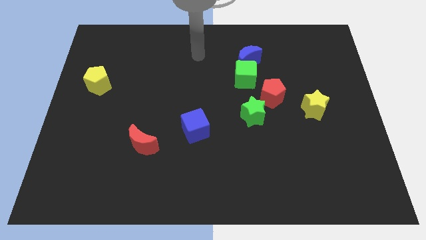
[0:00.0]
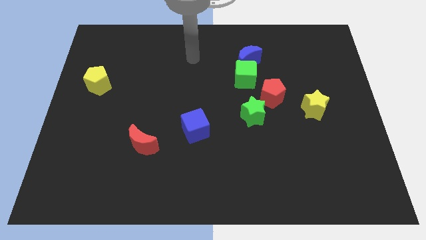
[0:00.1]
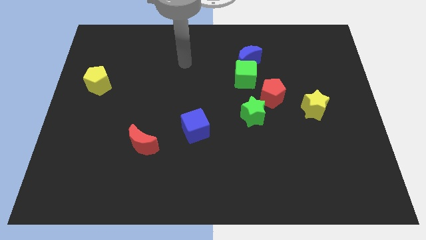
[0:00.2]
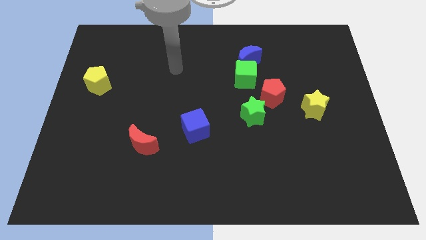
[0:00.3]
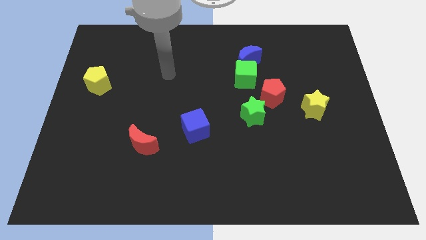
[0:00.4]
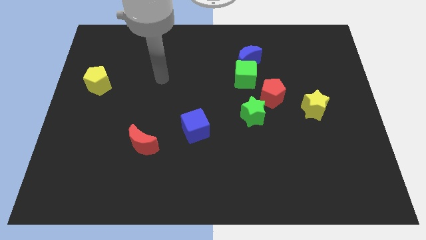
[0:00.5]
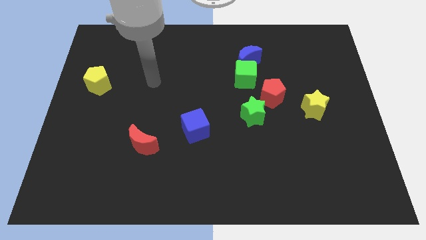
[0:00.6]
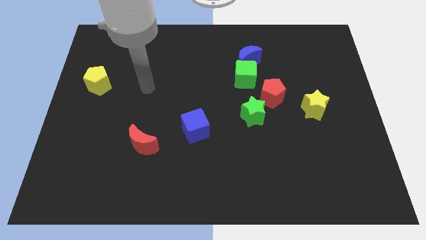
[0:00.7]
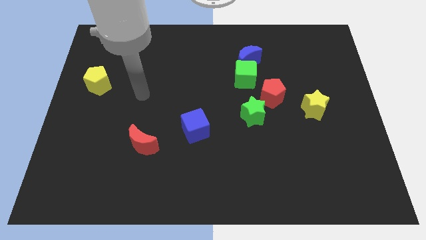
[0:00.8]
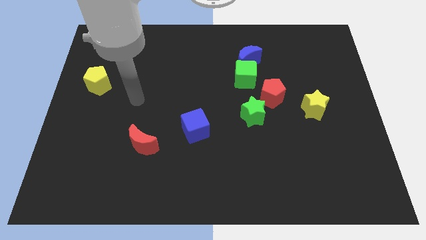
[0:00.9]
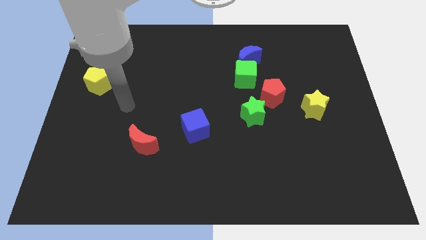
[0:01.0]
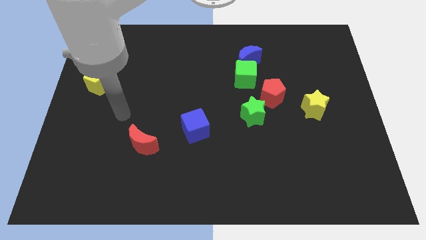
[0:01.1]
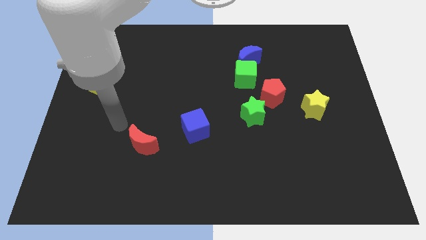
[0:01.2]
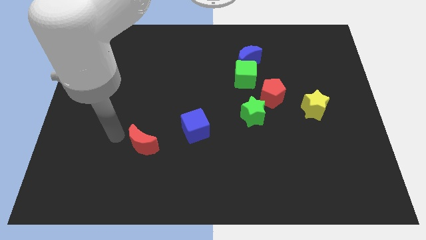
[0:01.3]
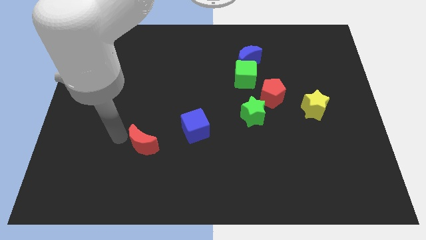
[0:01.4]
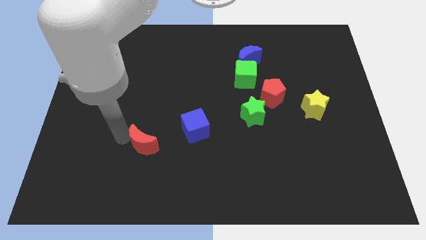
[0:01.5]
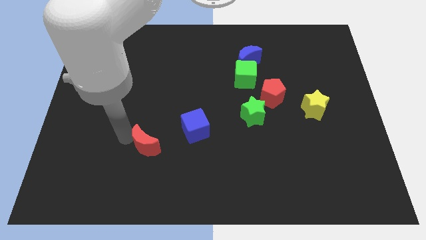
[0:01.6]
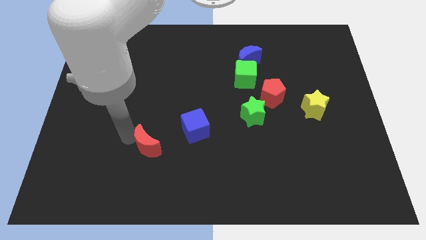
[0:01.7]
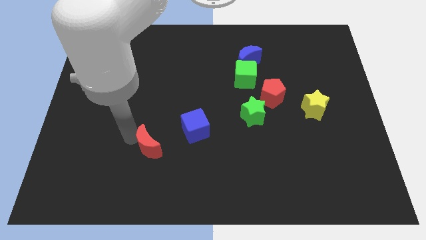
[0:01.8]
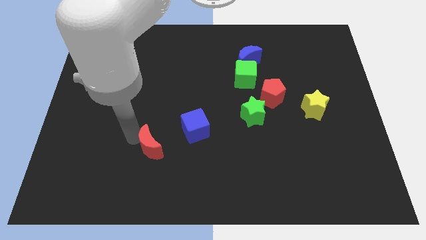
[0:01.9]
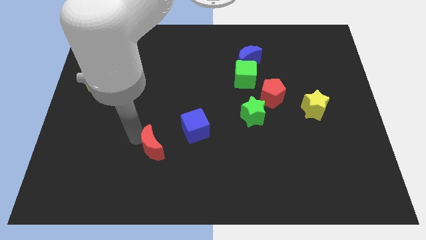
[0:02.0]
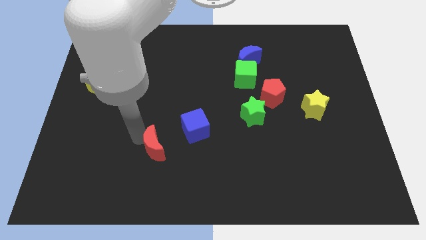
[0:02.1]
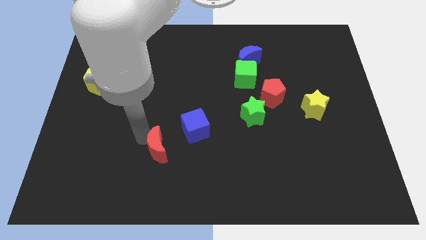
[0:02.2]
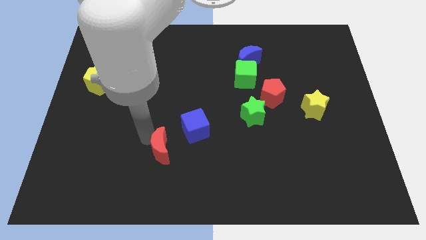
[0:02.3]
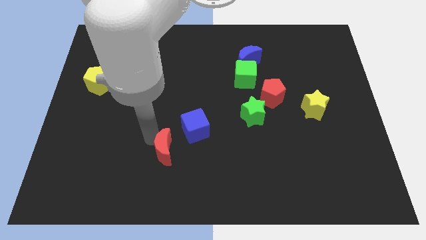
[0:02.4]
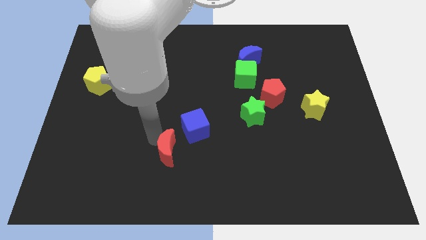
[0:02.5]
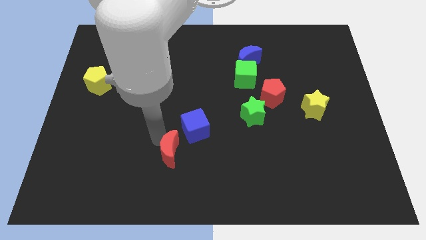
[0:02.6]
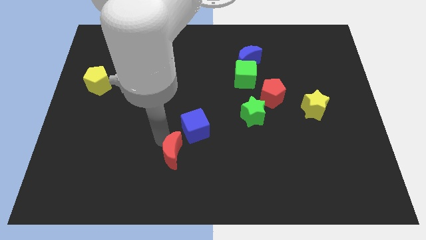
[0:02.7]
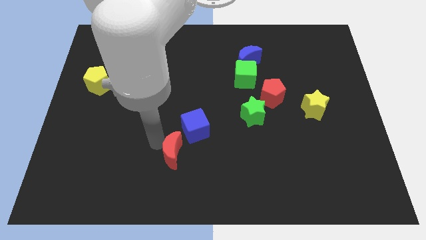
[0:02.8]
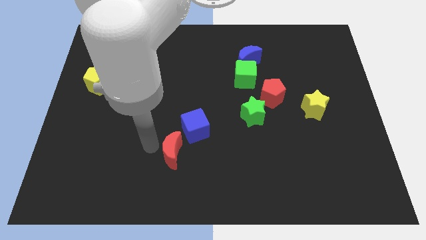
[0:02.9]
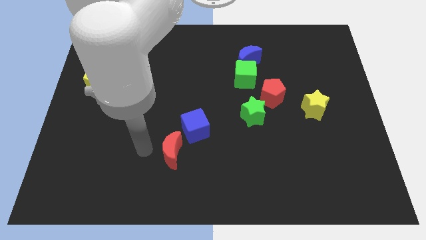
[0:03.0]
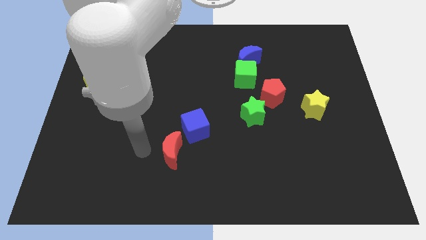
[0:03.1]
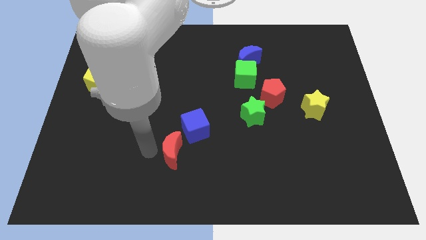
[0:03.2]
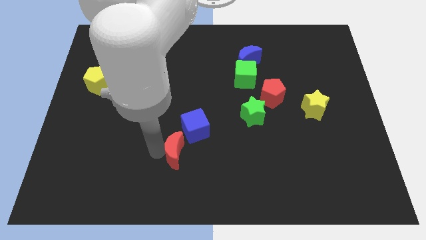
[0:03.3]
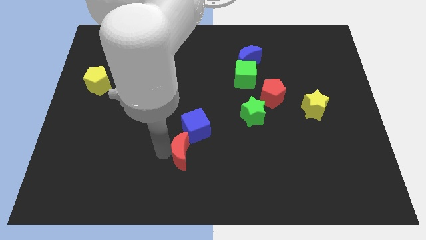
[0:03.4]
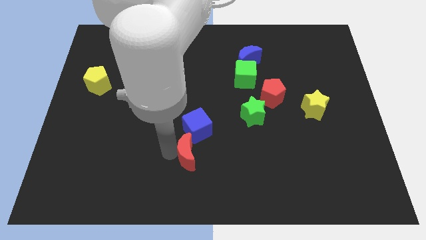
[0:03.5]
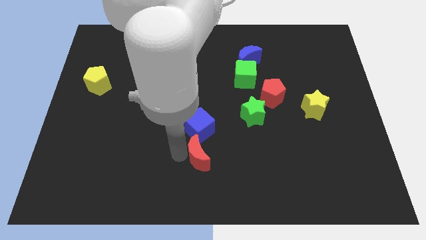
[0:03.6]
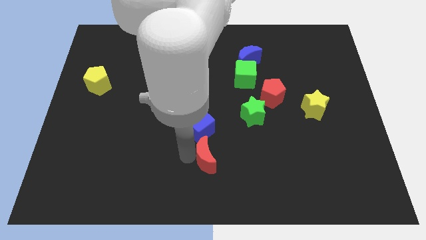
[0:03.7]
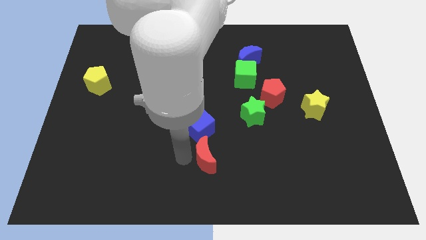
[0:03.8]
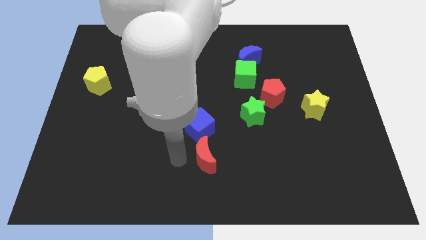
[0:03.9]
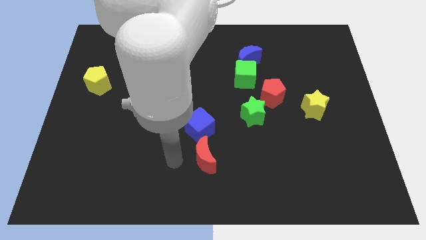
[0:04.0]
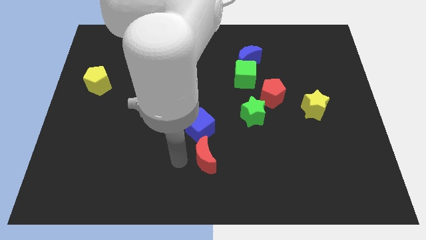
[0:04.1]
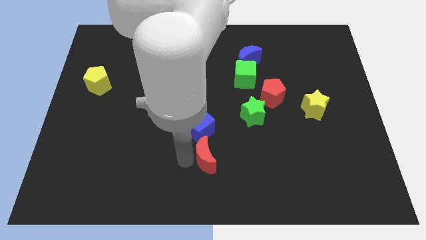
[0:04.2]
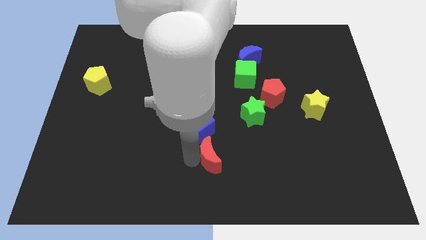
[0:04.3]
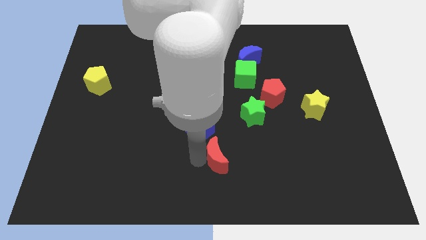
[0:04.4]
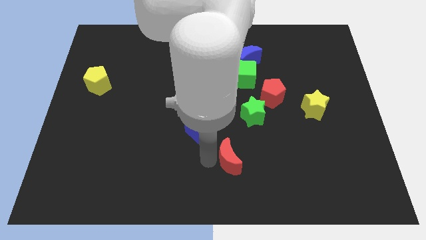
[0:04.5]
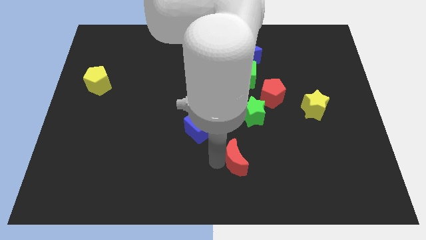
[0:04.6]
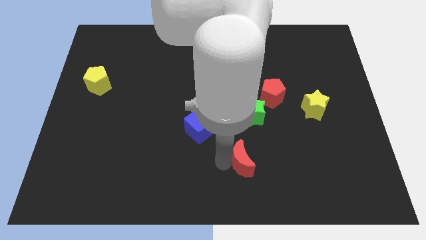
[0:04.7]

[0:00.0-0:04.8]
slide the red moon right

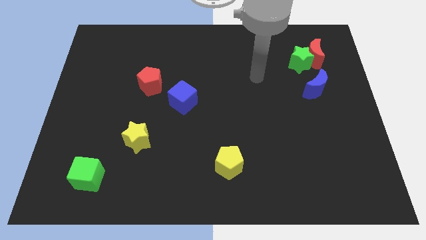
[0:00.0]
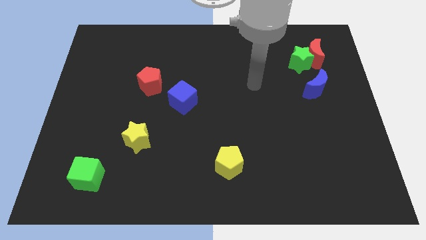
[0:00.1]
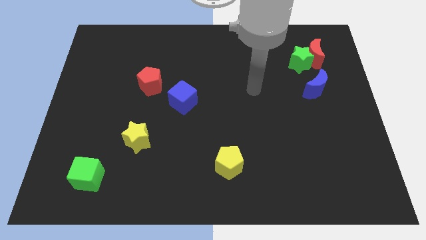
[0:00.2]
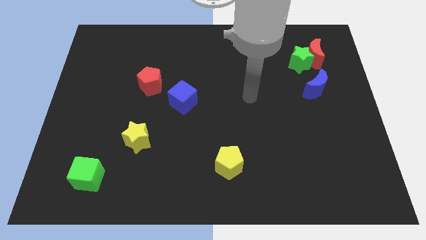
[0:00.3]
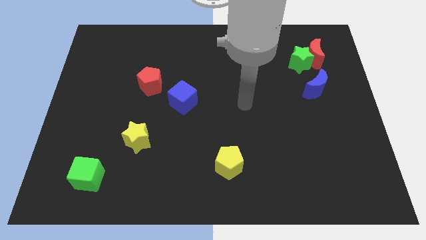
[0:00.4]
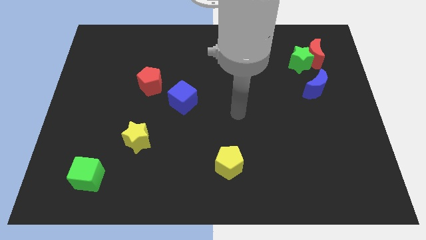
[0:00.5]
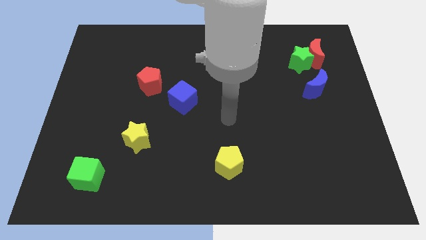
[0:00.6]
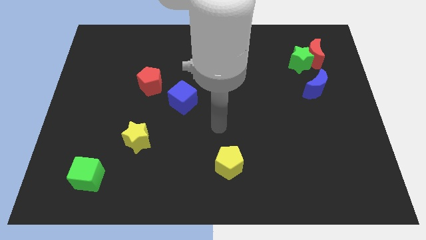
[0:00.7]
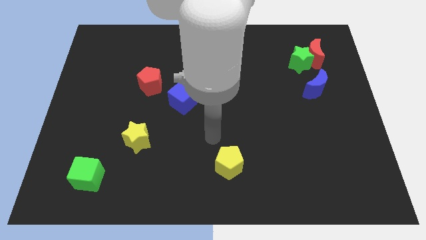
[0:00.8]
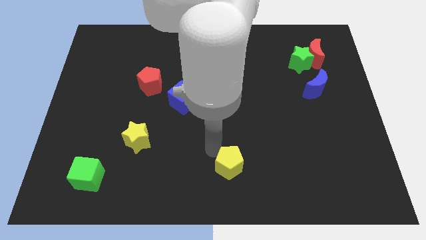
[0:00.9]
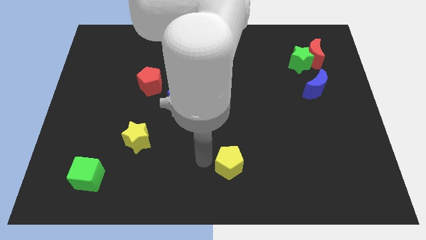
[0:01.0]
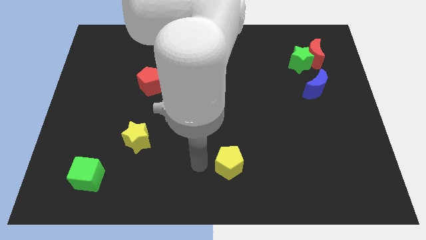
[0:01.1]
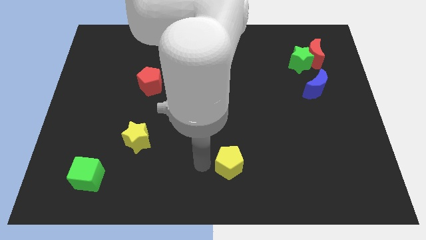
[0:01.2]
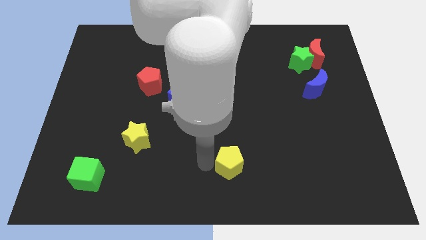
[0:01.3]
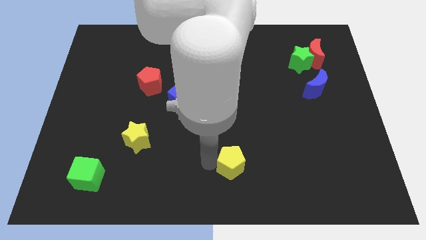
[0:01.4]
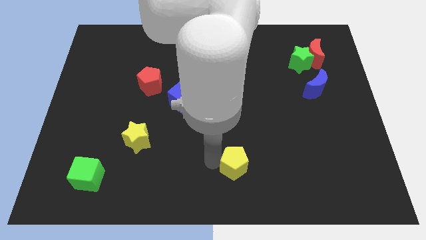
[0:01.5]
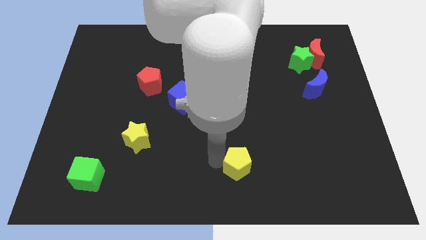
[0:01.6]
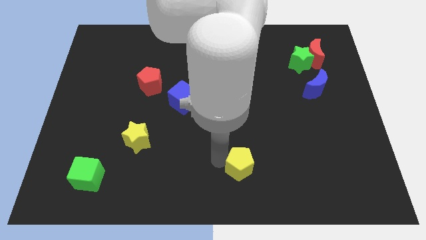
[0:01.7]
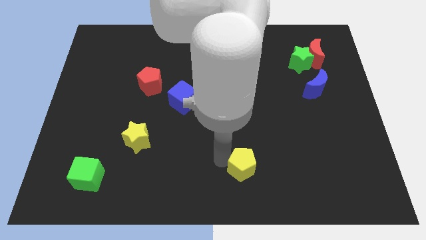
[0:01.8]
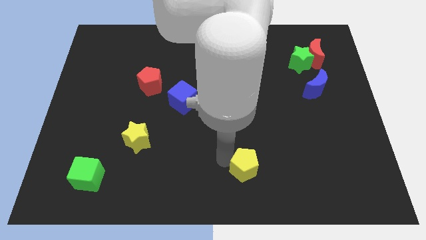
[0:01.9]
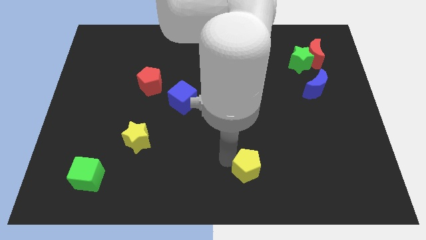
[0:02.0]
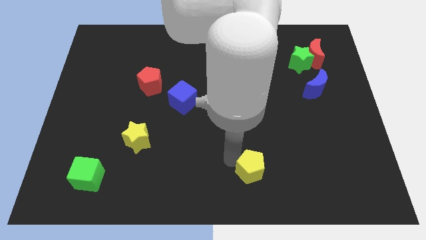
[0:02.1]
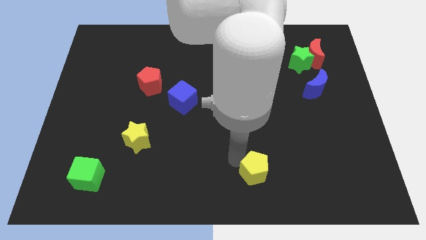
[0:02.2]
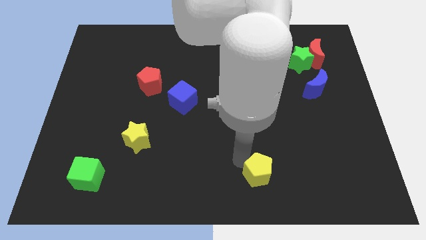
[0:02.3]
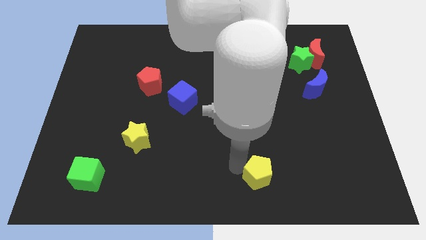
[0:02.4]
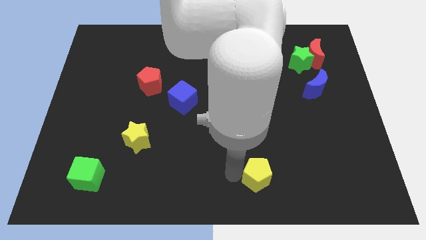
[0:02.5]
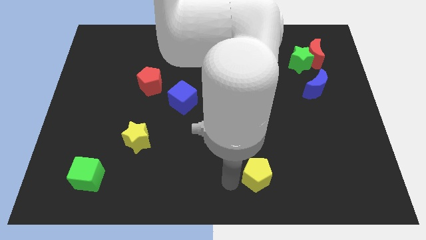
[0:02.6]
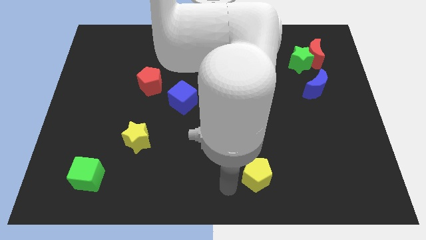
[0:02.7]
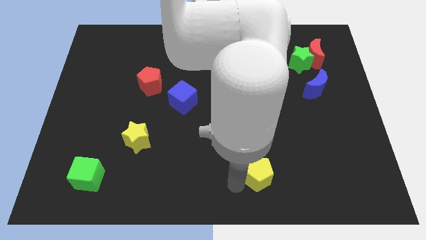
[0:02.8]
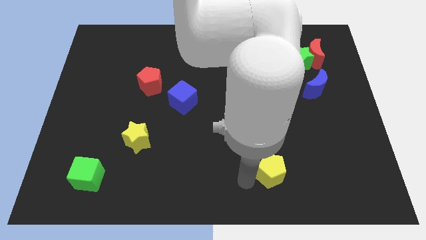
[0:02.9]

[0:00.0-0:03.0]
slide the yellow pentagon right a little
